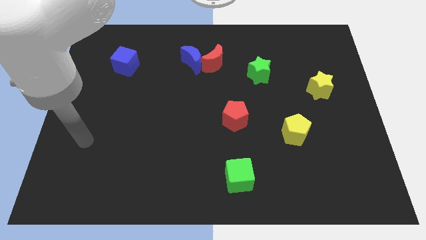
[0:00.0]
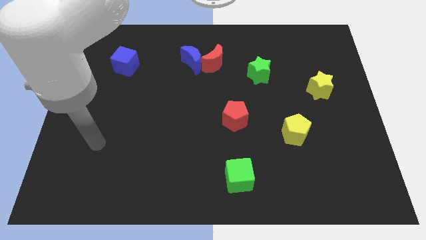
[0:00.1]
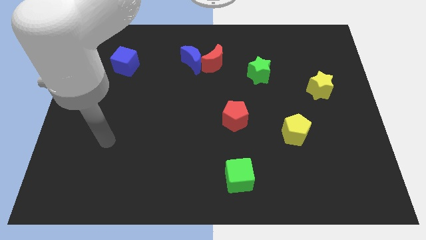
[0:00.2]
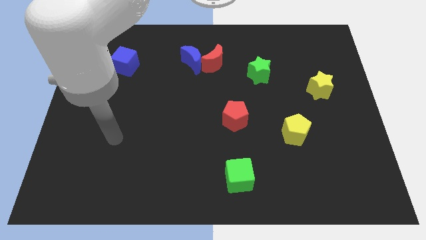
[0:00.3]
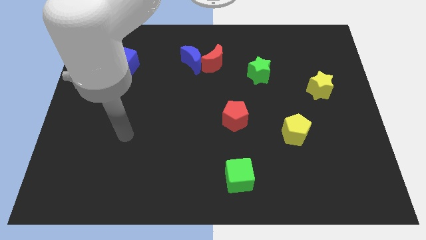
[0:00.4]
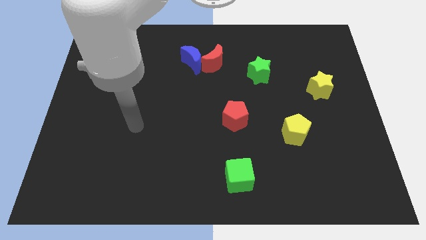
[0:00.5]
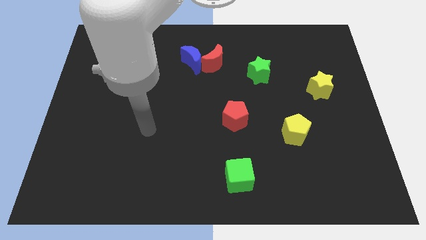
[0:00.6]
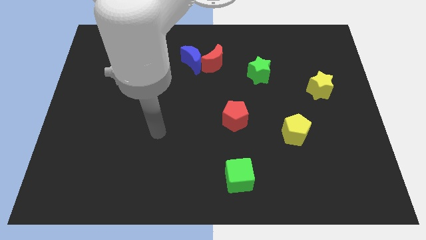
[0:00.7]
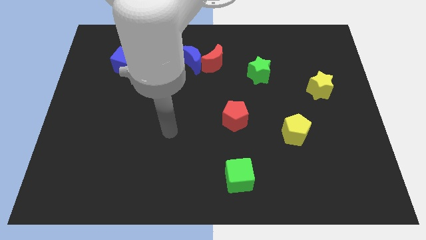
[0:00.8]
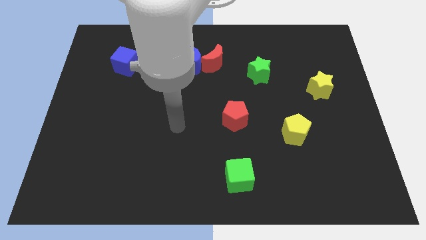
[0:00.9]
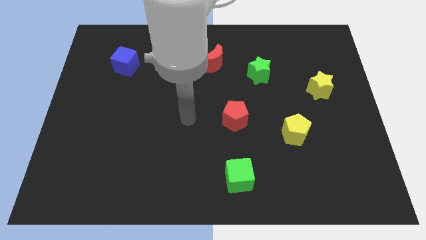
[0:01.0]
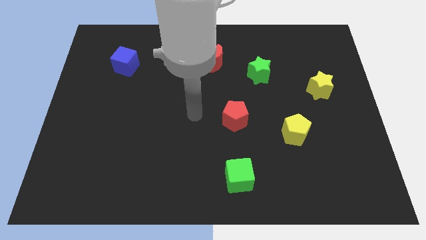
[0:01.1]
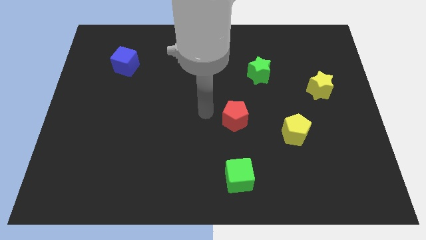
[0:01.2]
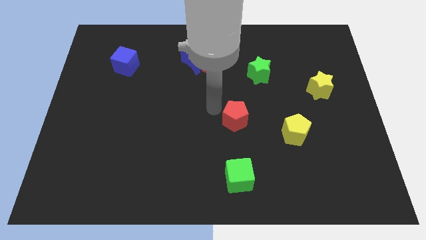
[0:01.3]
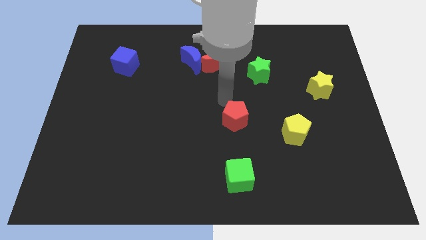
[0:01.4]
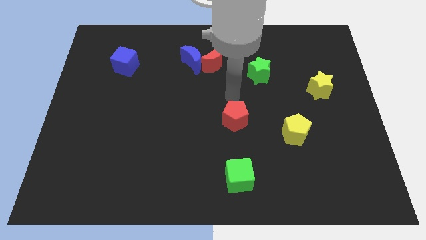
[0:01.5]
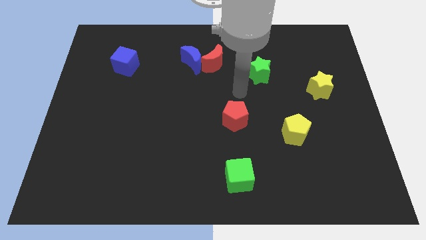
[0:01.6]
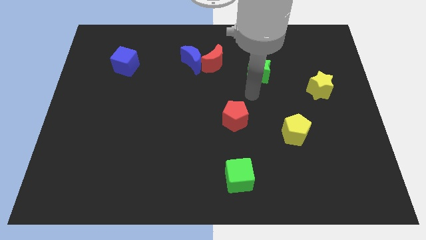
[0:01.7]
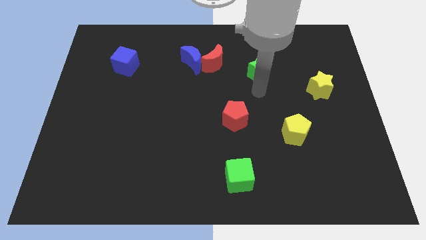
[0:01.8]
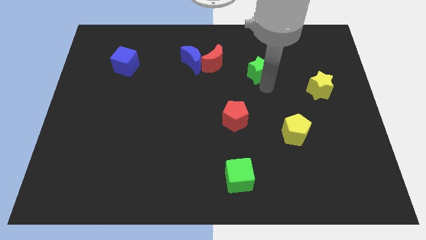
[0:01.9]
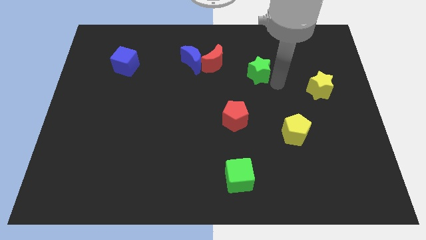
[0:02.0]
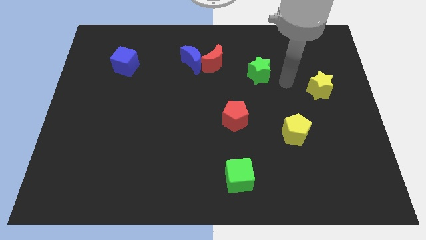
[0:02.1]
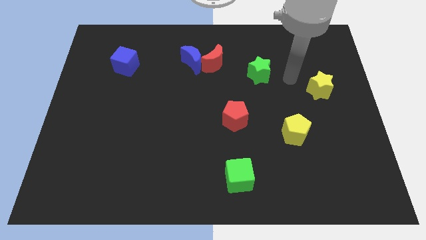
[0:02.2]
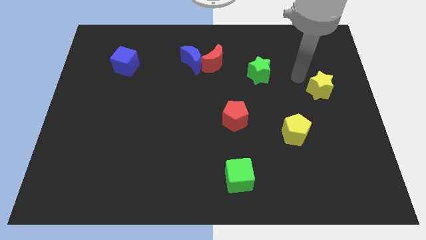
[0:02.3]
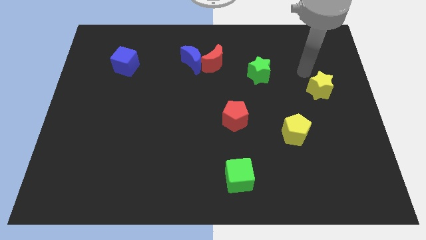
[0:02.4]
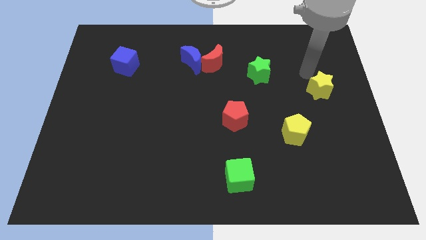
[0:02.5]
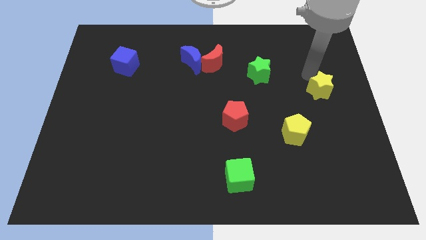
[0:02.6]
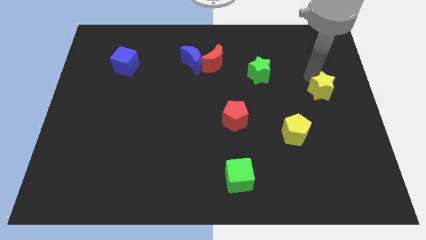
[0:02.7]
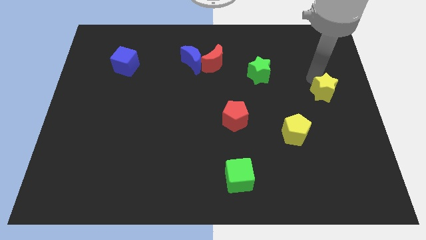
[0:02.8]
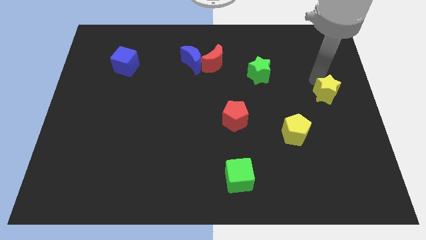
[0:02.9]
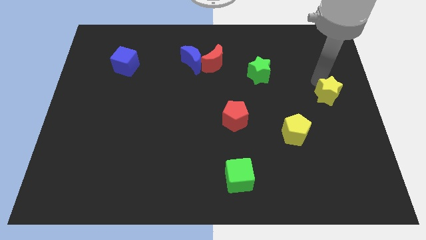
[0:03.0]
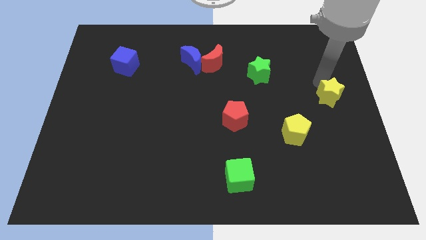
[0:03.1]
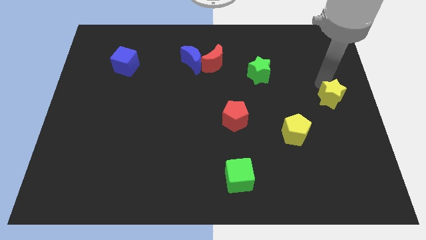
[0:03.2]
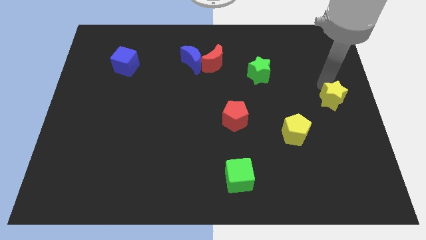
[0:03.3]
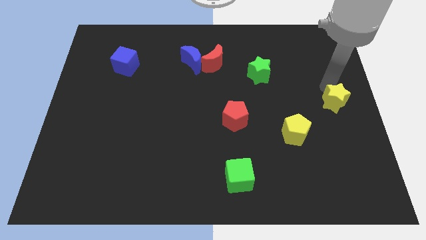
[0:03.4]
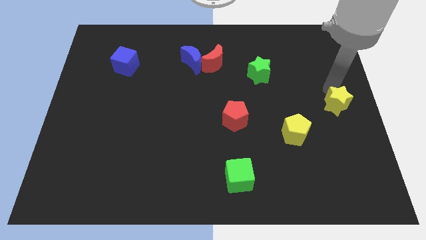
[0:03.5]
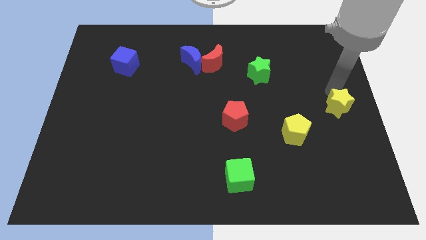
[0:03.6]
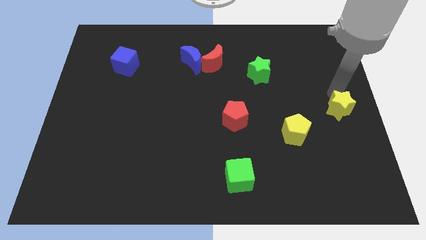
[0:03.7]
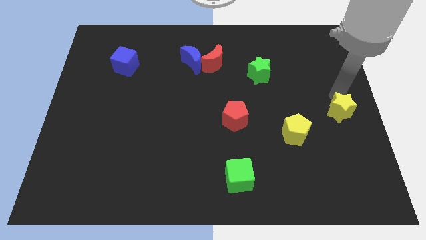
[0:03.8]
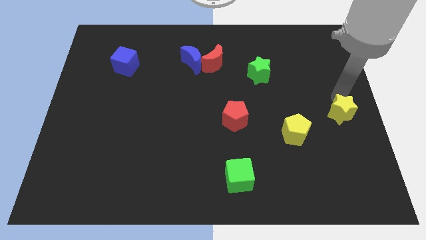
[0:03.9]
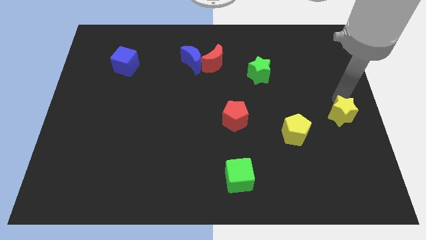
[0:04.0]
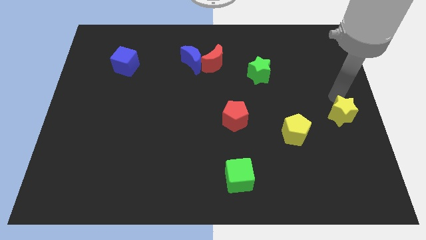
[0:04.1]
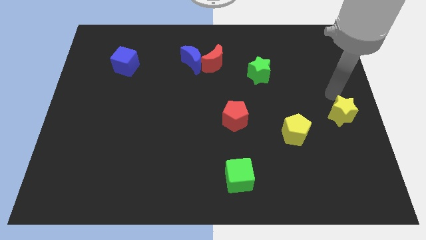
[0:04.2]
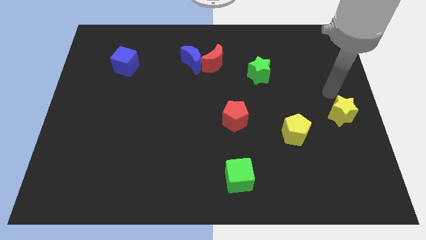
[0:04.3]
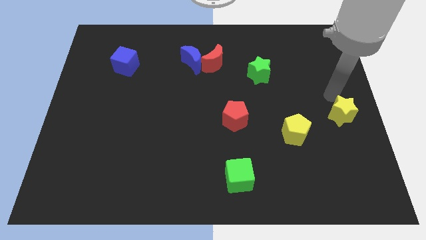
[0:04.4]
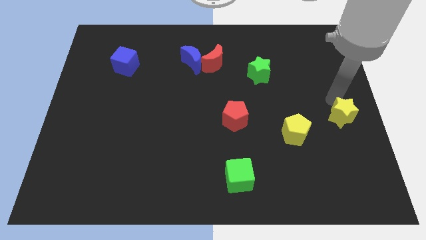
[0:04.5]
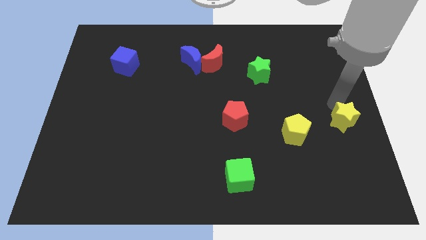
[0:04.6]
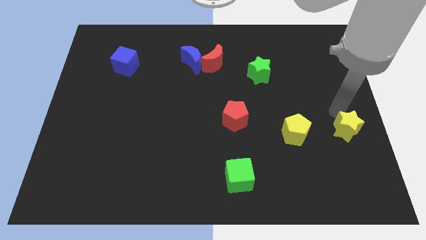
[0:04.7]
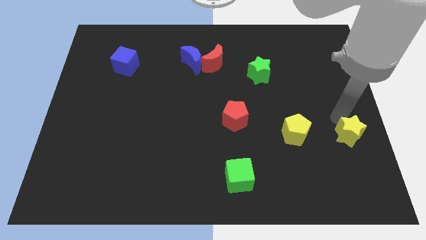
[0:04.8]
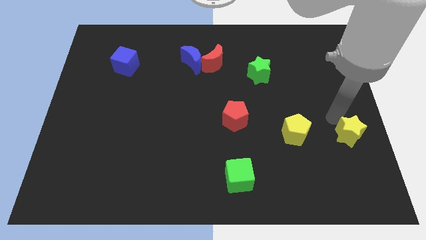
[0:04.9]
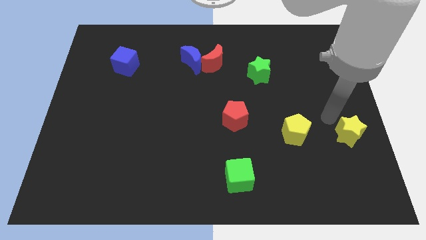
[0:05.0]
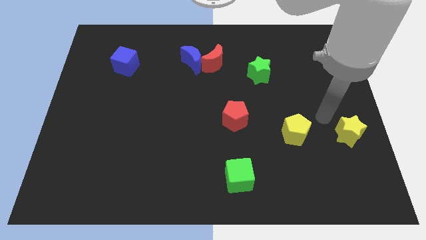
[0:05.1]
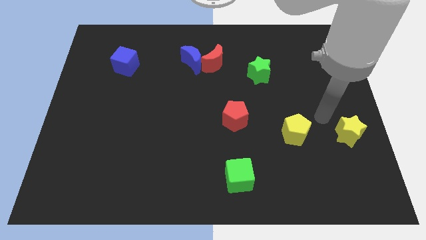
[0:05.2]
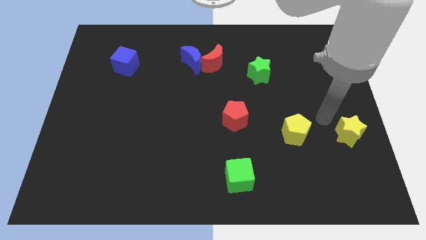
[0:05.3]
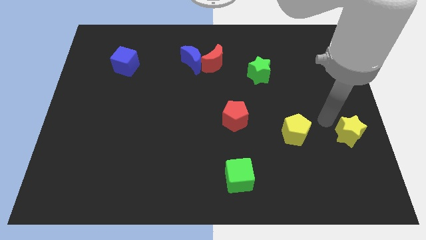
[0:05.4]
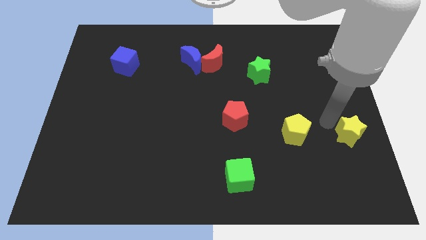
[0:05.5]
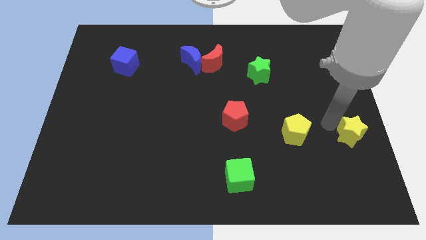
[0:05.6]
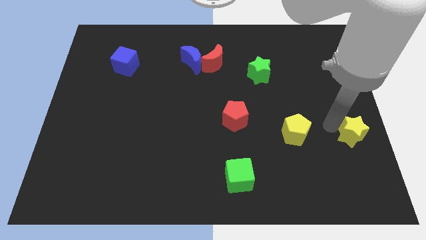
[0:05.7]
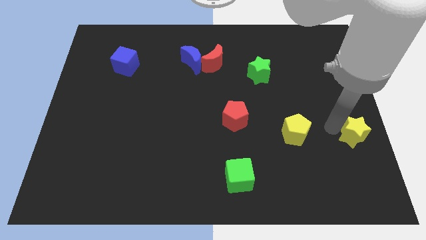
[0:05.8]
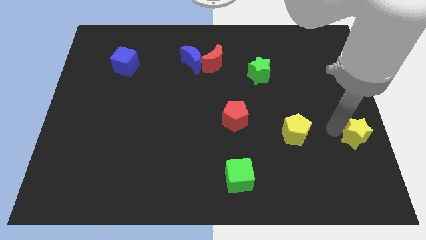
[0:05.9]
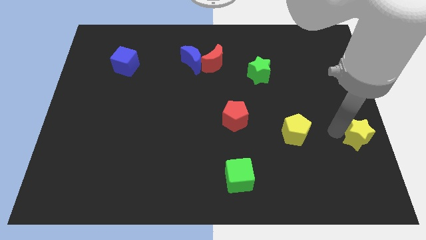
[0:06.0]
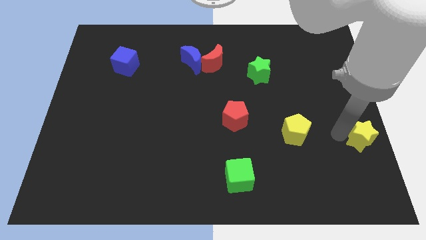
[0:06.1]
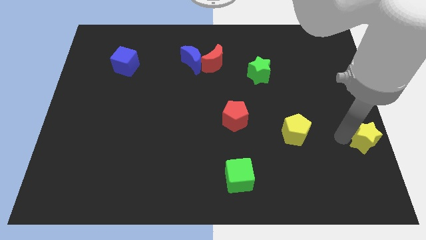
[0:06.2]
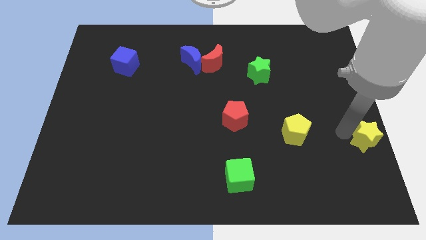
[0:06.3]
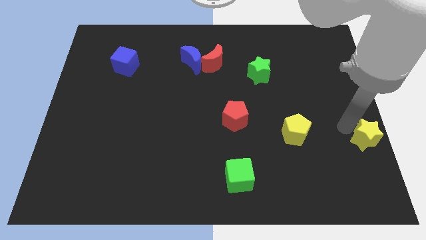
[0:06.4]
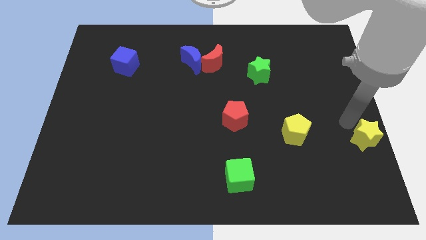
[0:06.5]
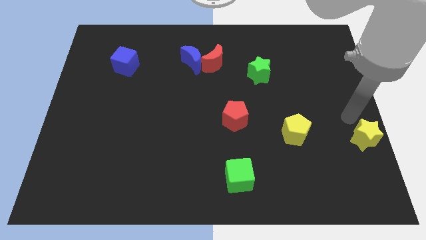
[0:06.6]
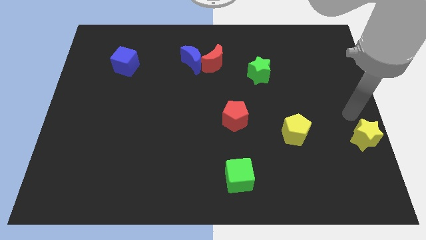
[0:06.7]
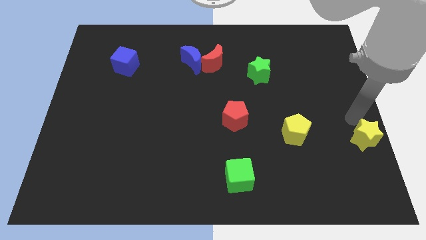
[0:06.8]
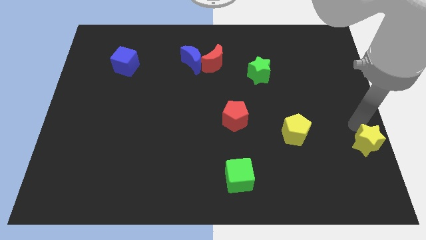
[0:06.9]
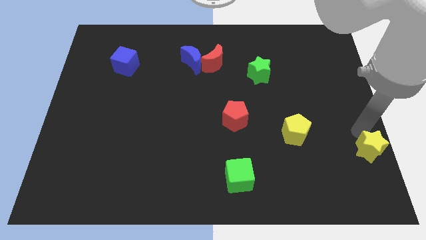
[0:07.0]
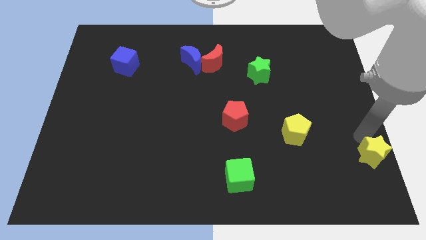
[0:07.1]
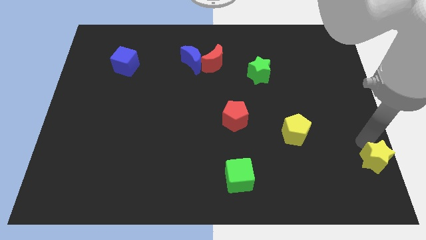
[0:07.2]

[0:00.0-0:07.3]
move the yellow star to the bottom right

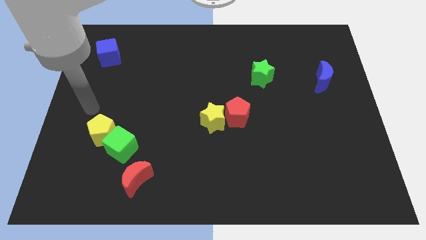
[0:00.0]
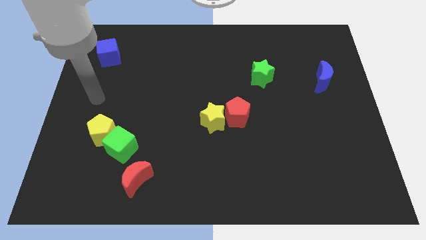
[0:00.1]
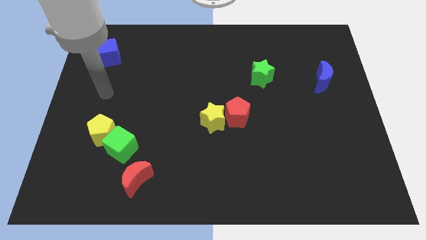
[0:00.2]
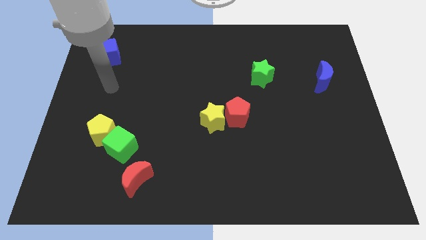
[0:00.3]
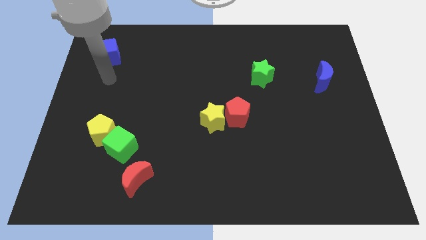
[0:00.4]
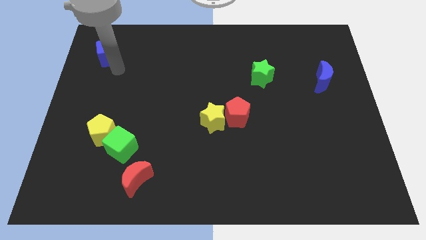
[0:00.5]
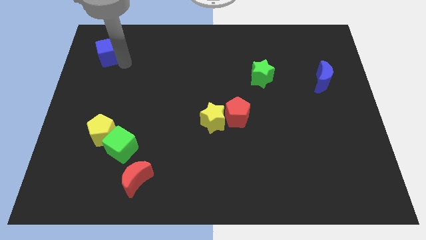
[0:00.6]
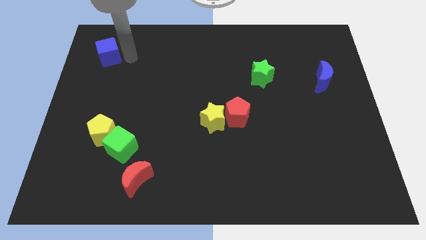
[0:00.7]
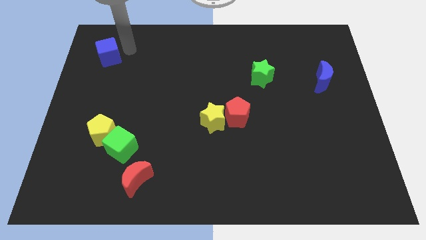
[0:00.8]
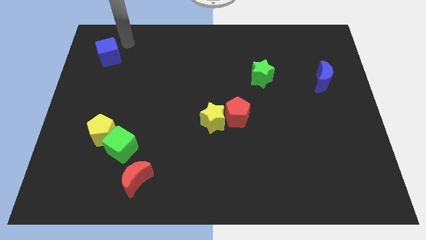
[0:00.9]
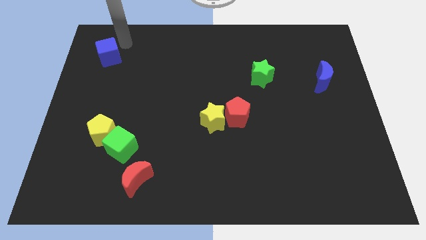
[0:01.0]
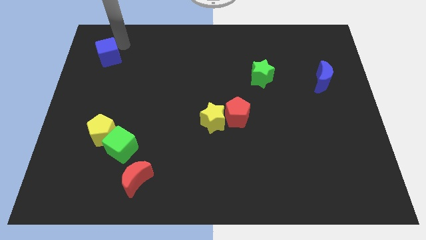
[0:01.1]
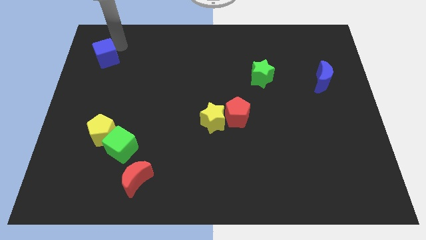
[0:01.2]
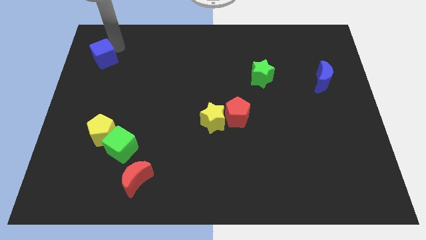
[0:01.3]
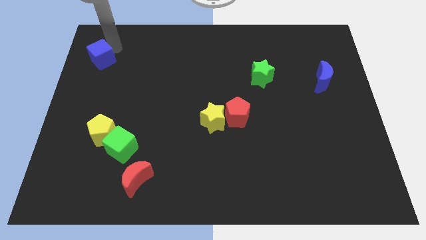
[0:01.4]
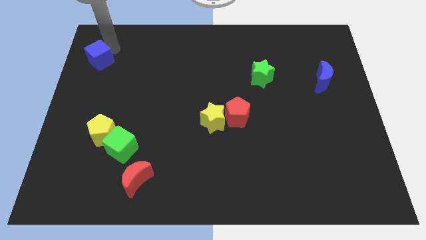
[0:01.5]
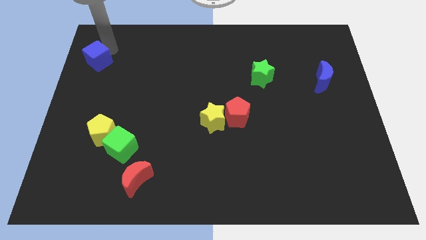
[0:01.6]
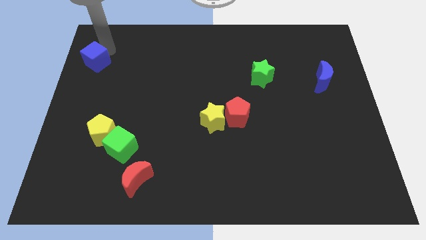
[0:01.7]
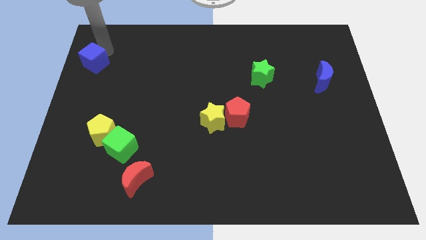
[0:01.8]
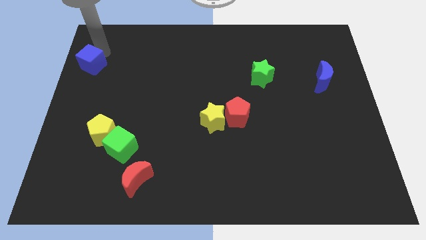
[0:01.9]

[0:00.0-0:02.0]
put the blue cube to the left side of the board
